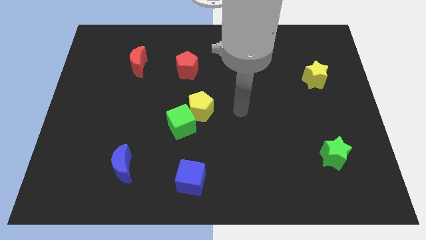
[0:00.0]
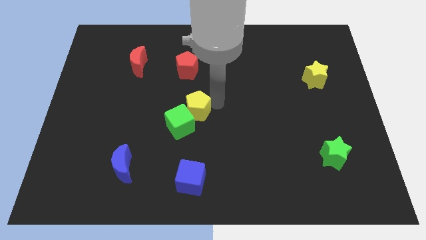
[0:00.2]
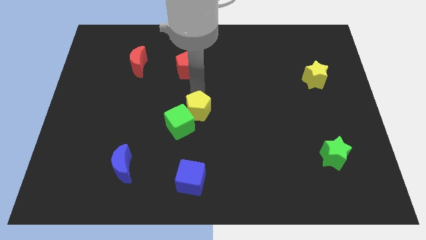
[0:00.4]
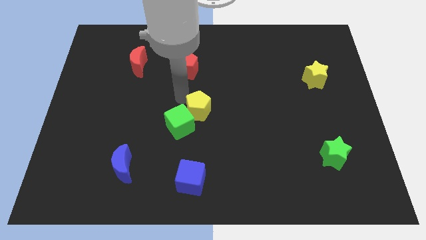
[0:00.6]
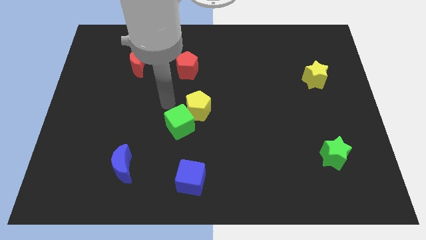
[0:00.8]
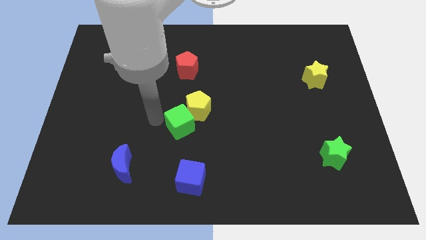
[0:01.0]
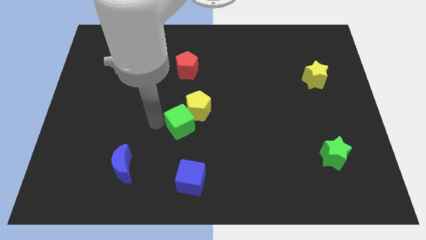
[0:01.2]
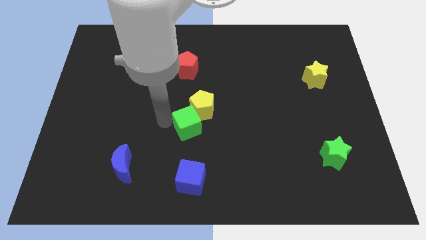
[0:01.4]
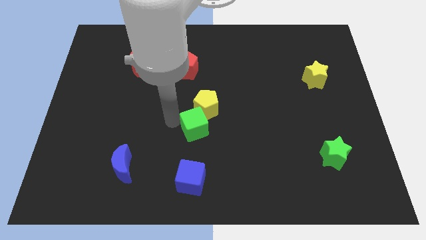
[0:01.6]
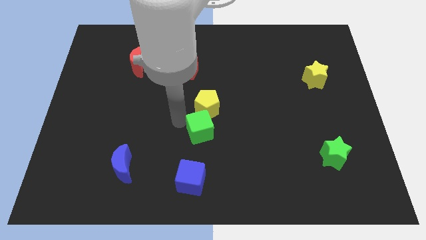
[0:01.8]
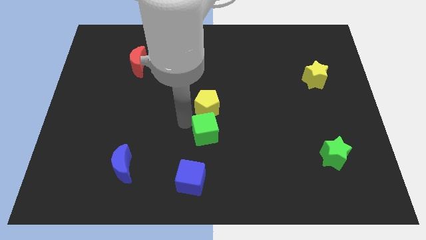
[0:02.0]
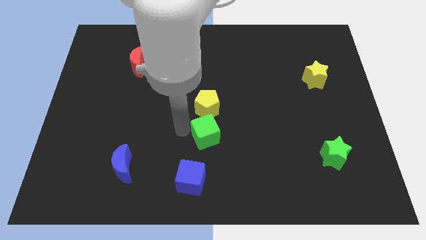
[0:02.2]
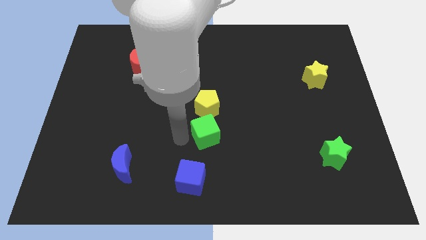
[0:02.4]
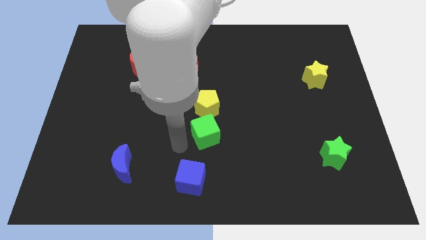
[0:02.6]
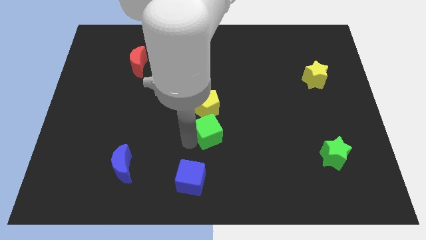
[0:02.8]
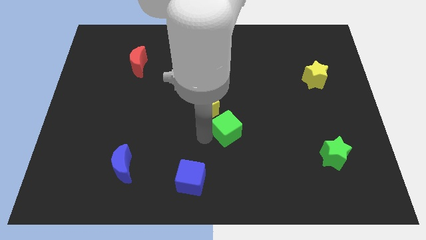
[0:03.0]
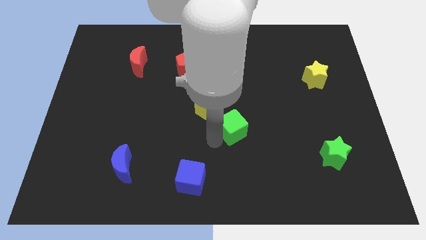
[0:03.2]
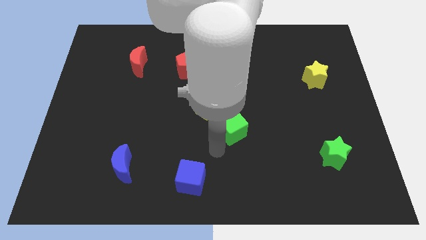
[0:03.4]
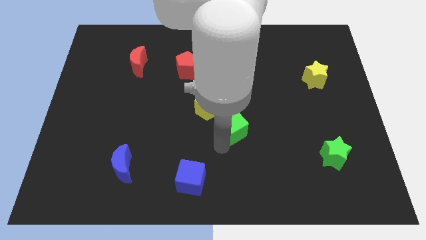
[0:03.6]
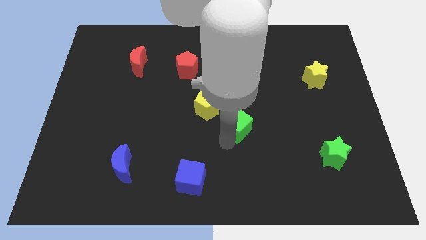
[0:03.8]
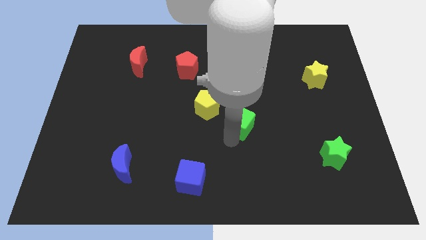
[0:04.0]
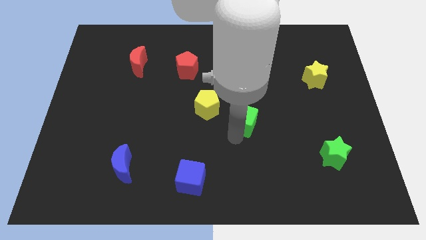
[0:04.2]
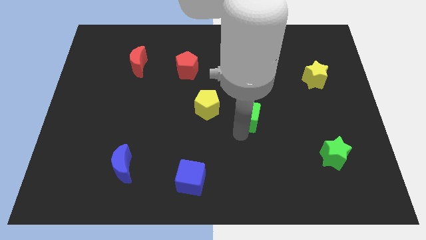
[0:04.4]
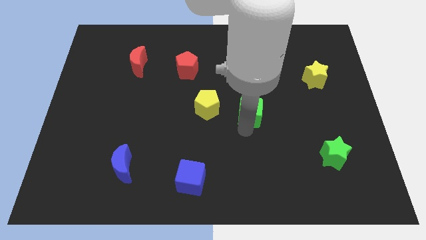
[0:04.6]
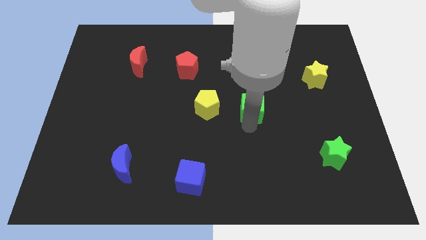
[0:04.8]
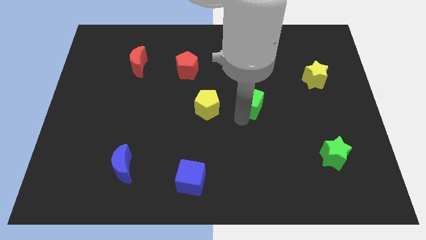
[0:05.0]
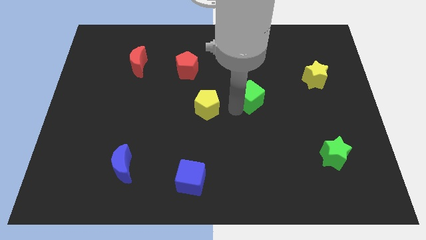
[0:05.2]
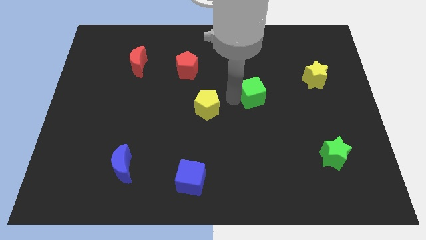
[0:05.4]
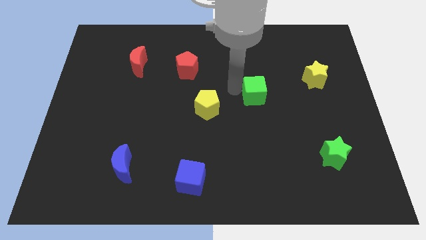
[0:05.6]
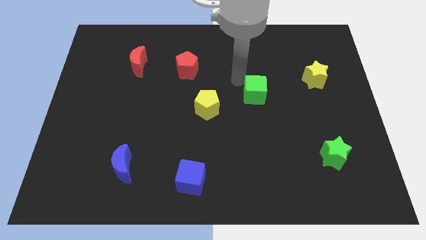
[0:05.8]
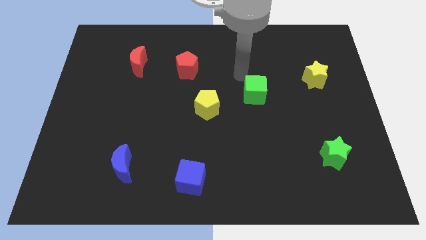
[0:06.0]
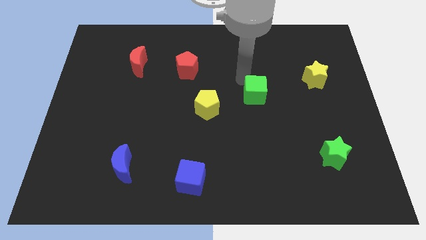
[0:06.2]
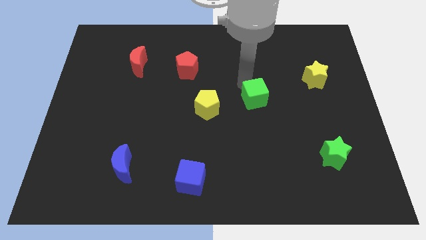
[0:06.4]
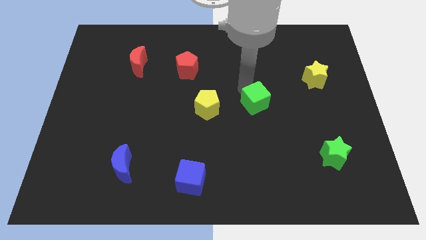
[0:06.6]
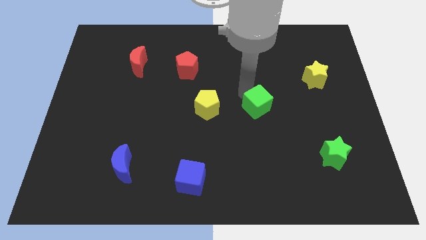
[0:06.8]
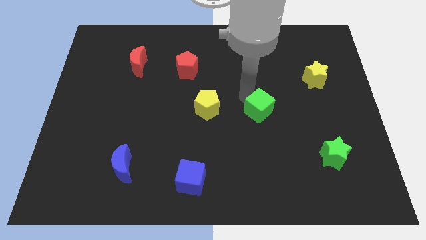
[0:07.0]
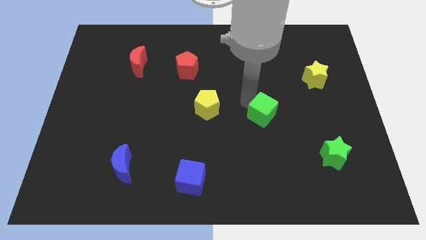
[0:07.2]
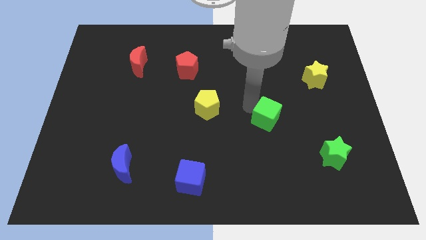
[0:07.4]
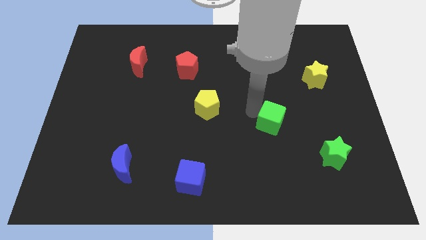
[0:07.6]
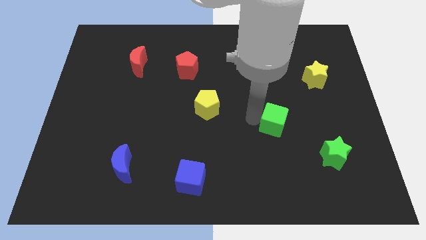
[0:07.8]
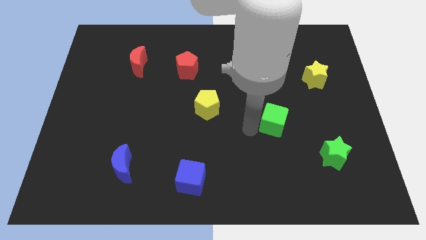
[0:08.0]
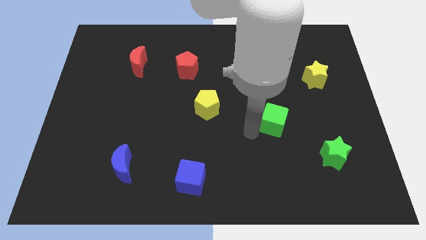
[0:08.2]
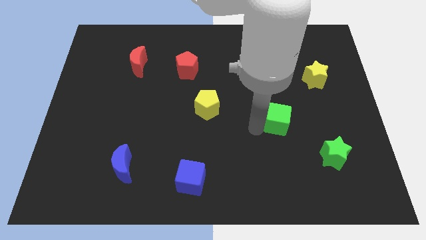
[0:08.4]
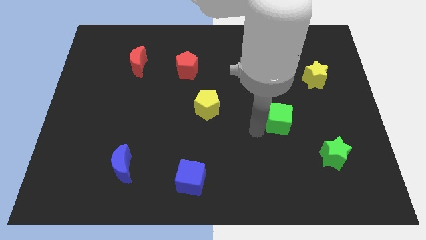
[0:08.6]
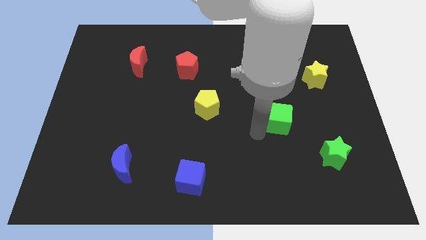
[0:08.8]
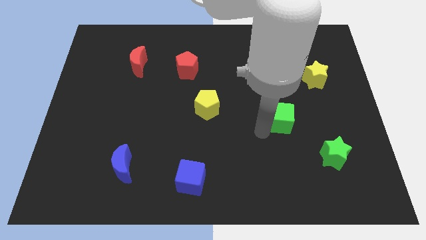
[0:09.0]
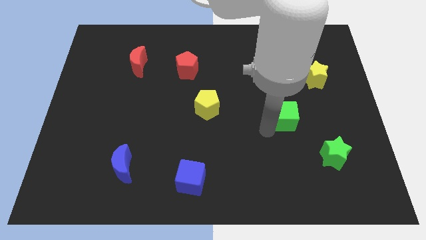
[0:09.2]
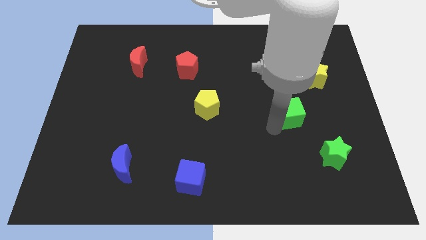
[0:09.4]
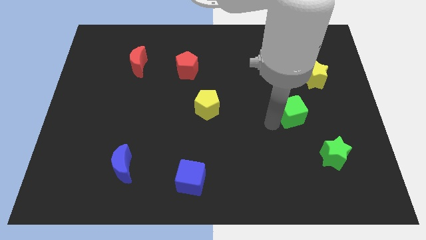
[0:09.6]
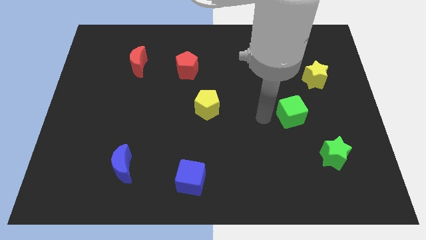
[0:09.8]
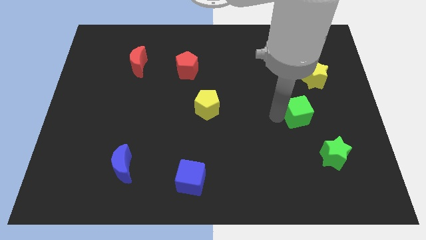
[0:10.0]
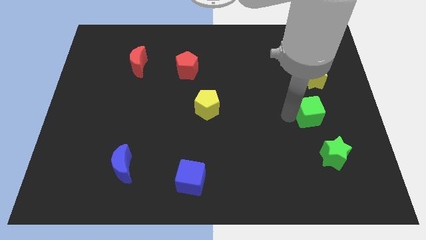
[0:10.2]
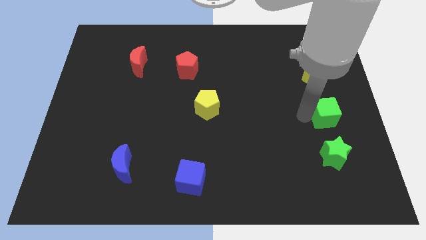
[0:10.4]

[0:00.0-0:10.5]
put the green cube to the center right

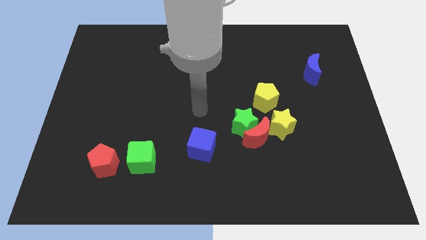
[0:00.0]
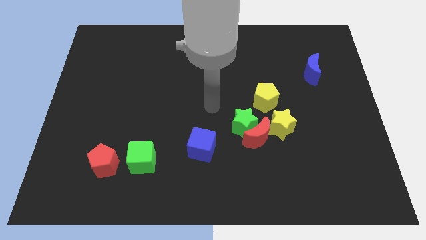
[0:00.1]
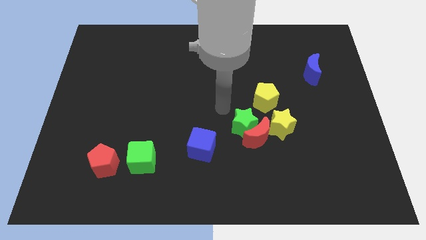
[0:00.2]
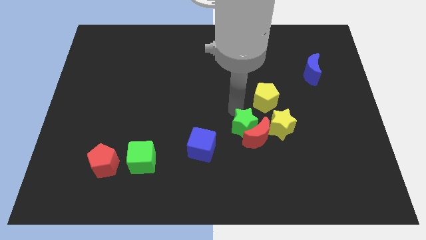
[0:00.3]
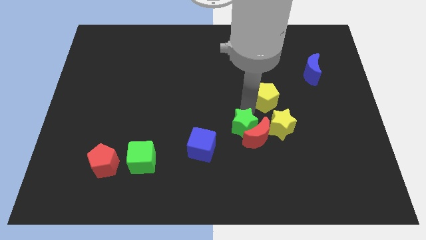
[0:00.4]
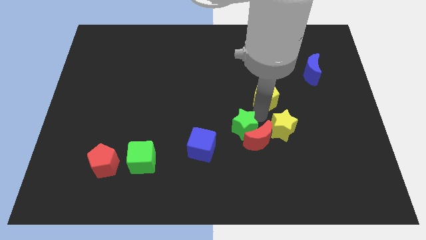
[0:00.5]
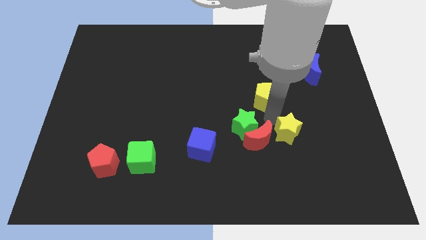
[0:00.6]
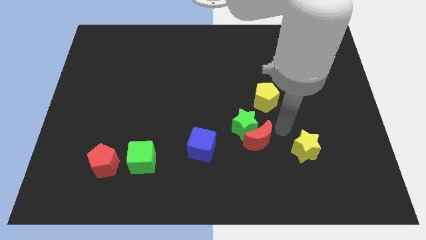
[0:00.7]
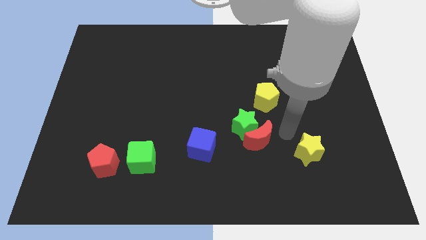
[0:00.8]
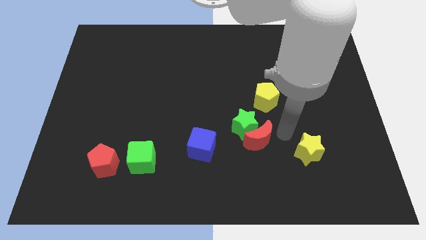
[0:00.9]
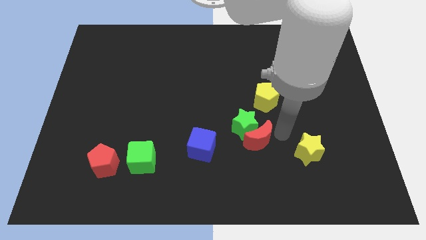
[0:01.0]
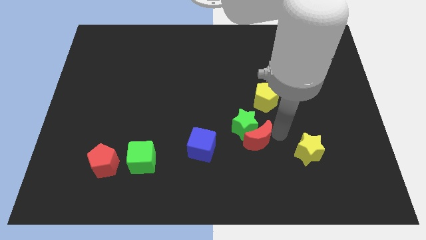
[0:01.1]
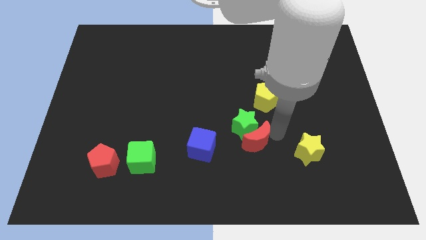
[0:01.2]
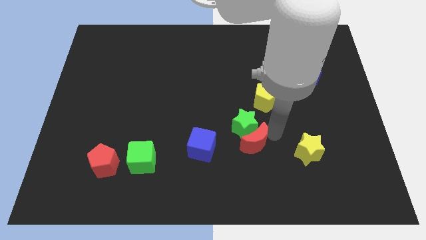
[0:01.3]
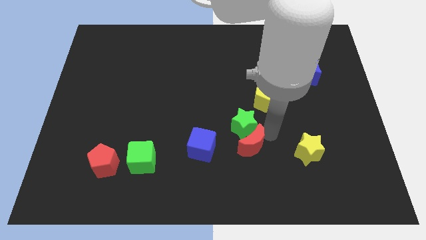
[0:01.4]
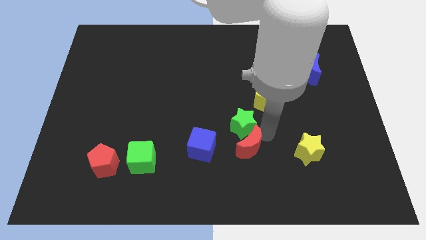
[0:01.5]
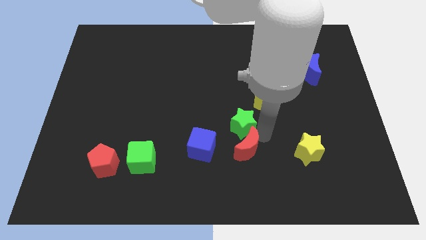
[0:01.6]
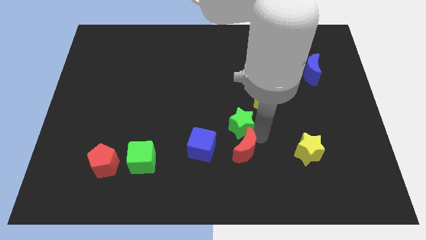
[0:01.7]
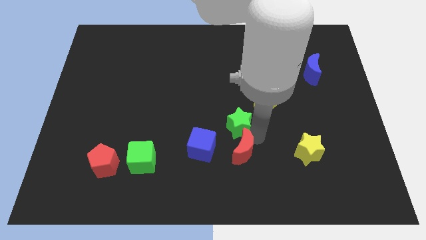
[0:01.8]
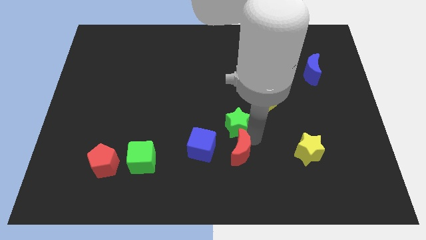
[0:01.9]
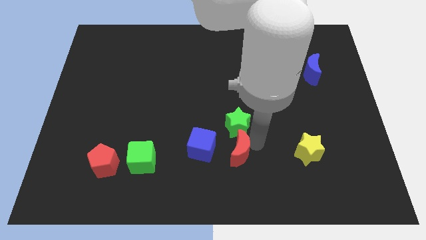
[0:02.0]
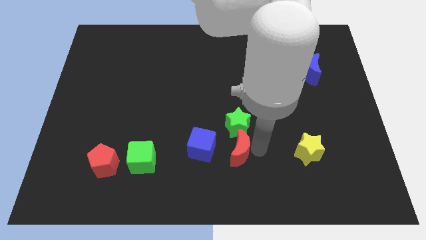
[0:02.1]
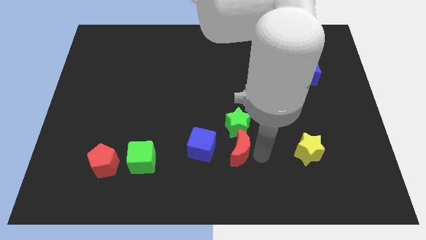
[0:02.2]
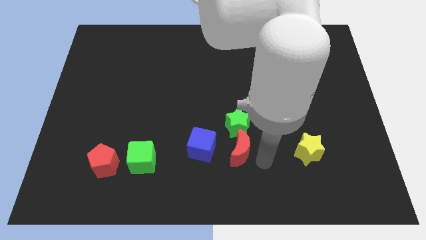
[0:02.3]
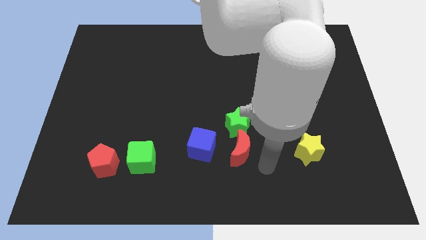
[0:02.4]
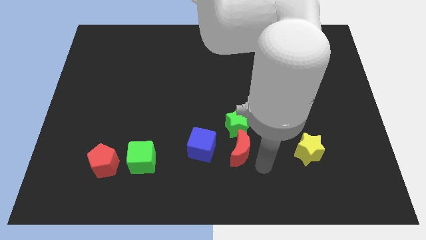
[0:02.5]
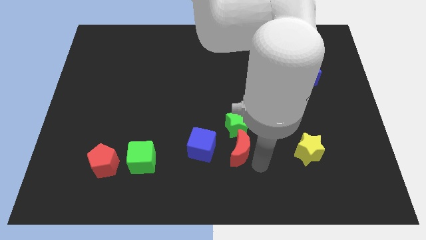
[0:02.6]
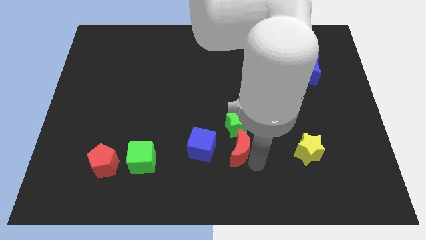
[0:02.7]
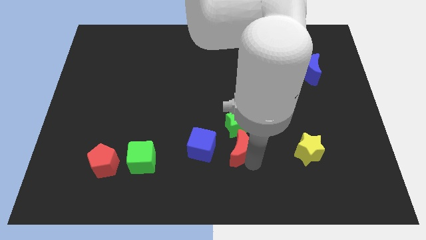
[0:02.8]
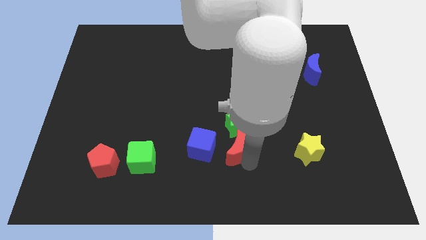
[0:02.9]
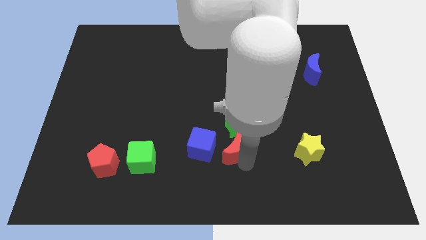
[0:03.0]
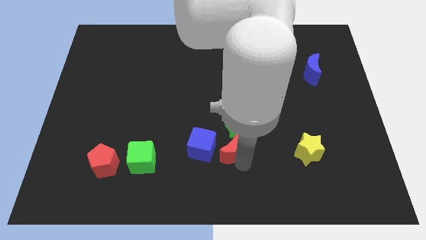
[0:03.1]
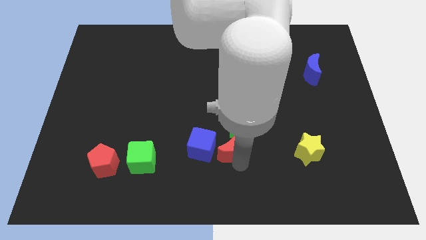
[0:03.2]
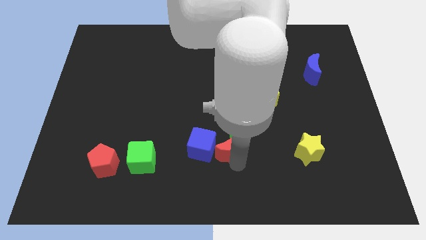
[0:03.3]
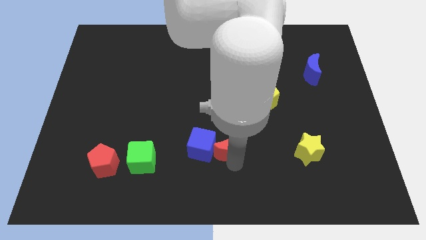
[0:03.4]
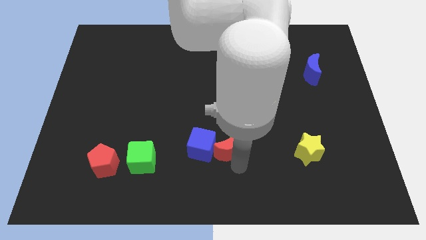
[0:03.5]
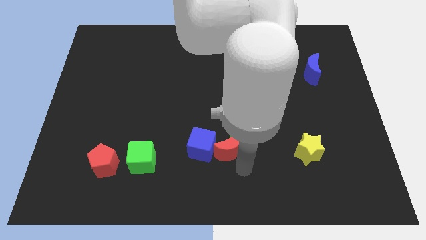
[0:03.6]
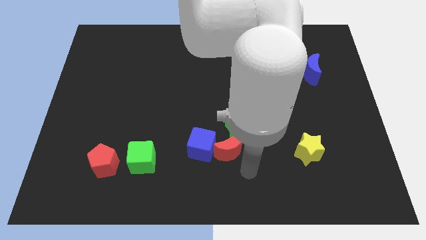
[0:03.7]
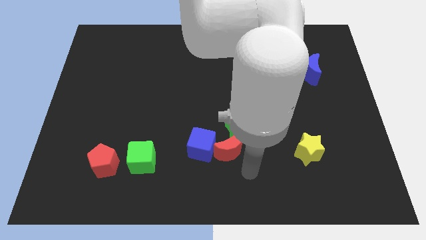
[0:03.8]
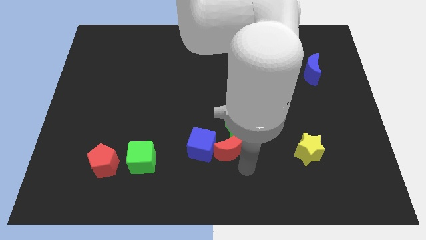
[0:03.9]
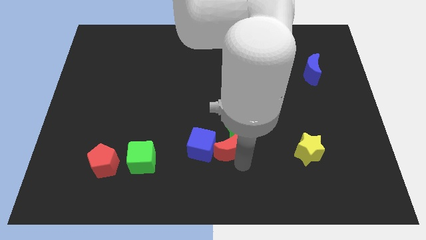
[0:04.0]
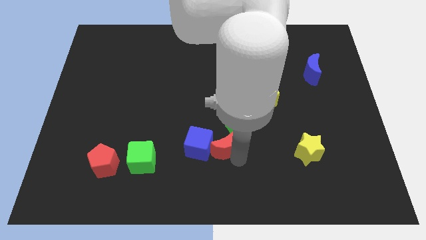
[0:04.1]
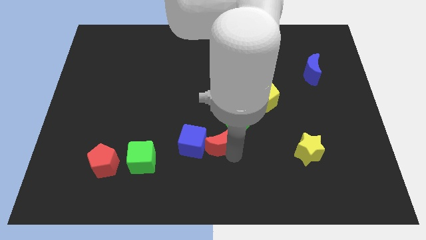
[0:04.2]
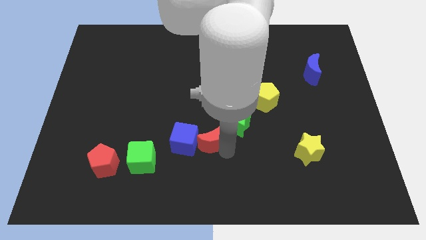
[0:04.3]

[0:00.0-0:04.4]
slide the red moon to the middle of the board
